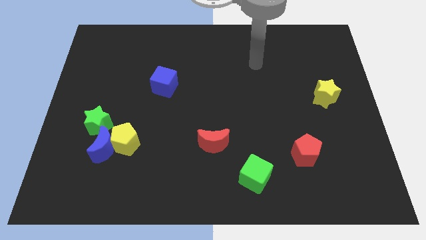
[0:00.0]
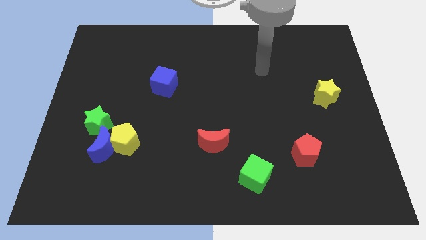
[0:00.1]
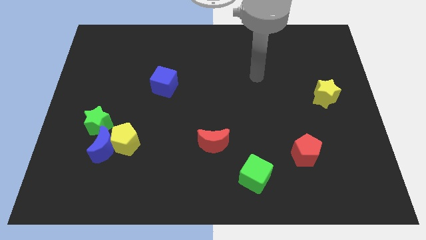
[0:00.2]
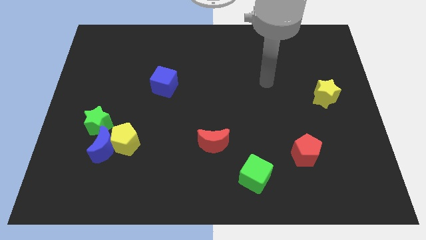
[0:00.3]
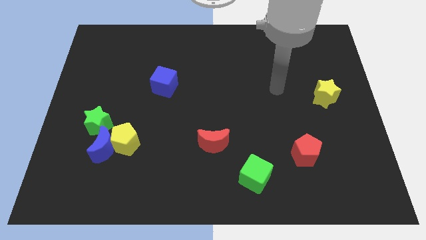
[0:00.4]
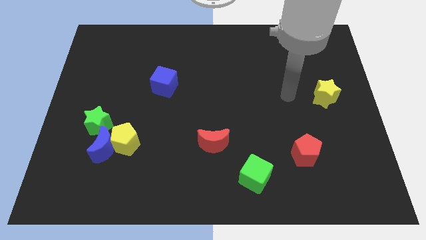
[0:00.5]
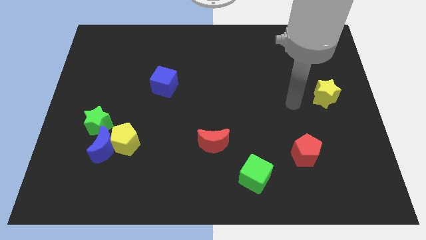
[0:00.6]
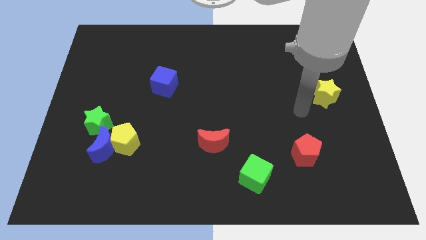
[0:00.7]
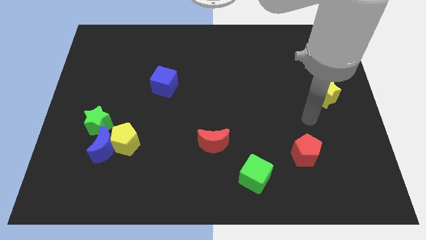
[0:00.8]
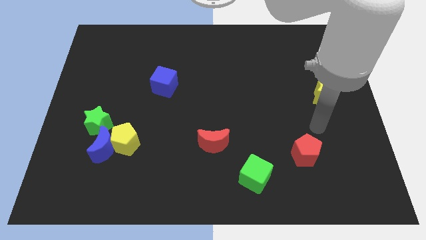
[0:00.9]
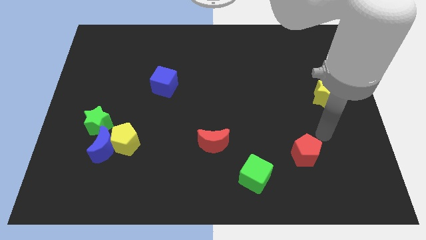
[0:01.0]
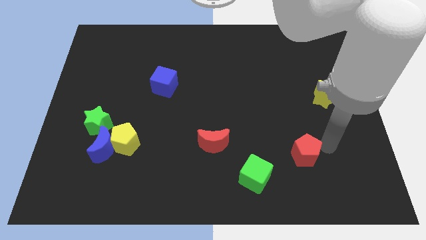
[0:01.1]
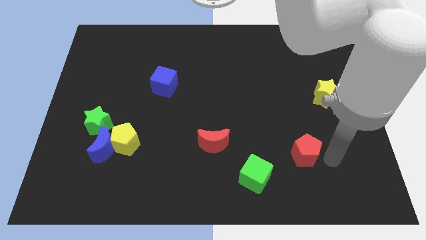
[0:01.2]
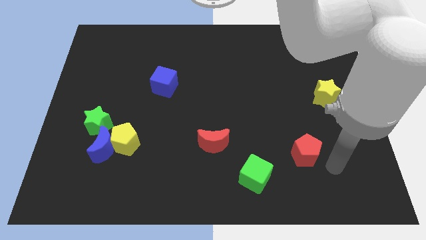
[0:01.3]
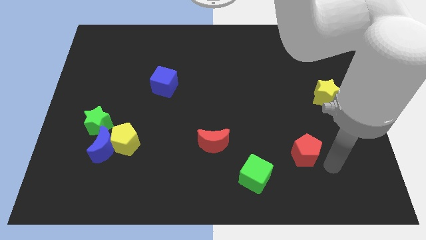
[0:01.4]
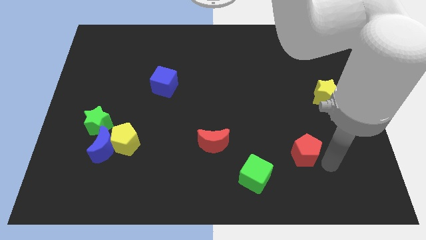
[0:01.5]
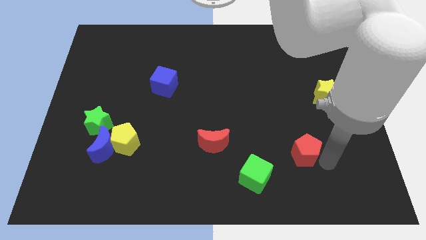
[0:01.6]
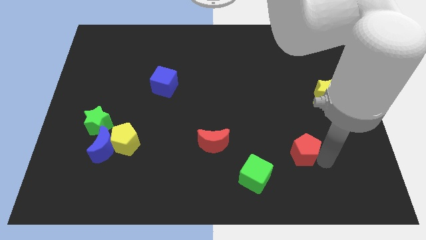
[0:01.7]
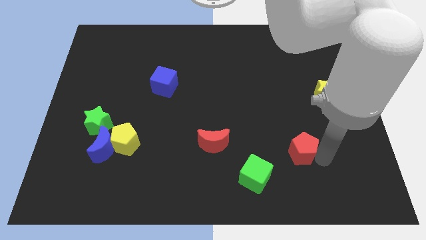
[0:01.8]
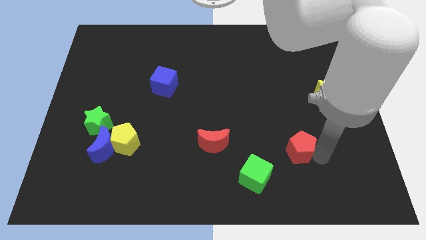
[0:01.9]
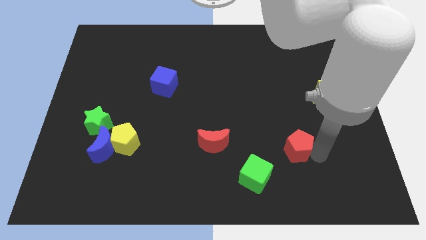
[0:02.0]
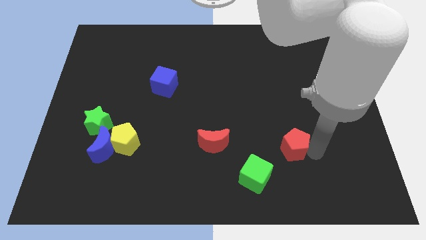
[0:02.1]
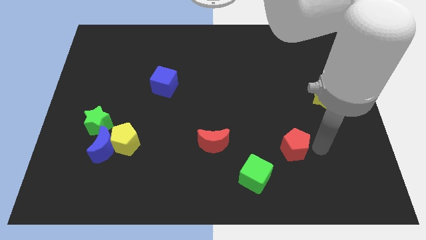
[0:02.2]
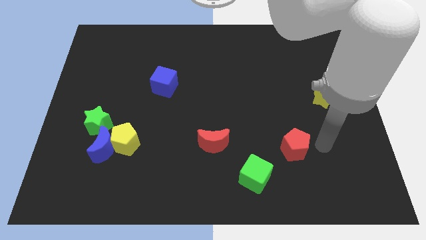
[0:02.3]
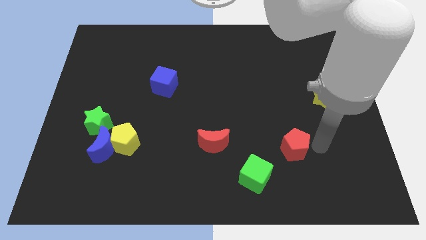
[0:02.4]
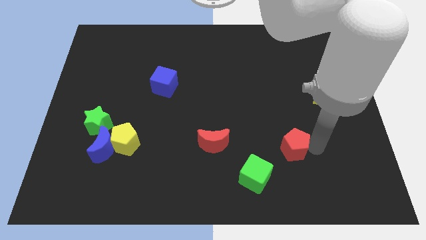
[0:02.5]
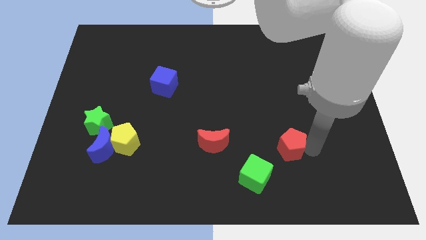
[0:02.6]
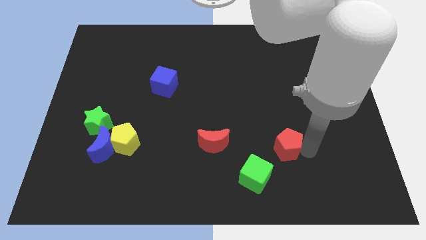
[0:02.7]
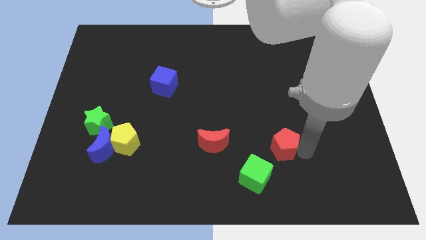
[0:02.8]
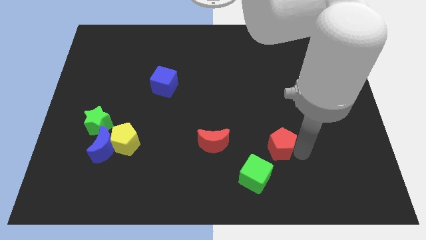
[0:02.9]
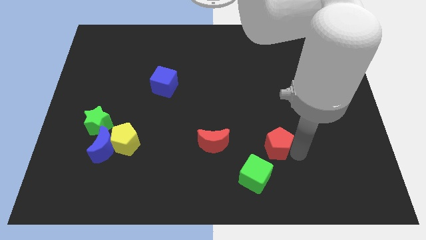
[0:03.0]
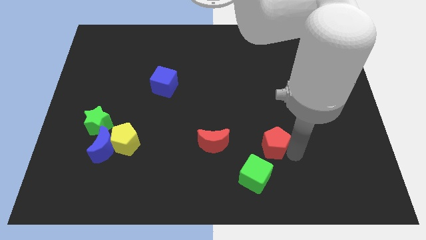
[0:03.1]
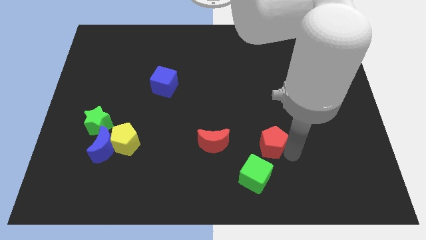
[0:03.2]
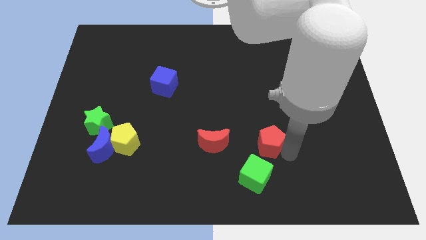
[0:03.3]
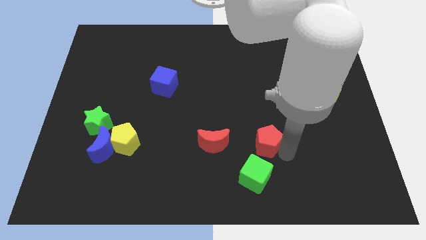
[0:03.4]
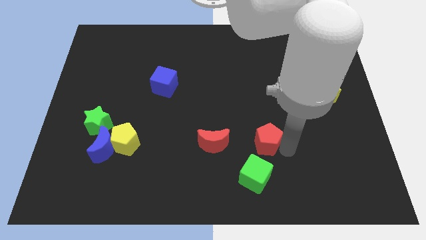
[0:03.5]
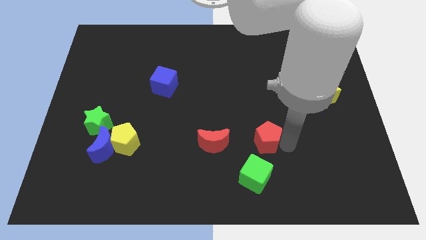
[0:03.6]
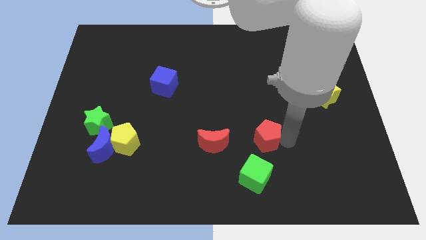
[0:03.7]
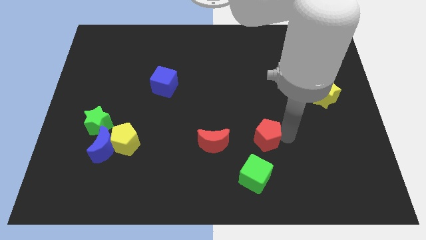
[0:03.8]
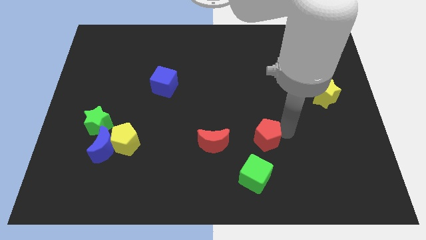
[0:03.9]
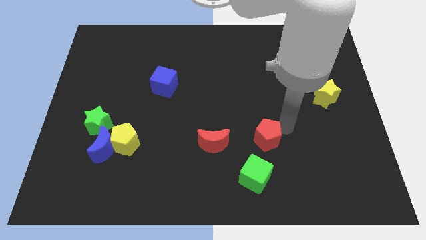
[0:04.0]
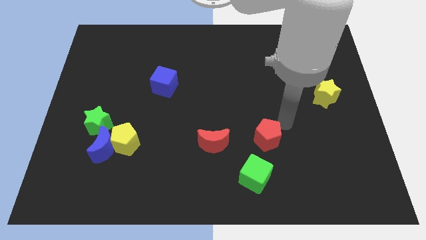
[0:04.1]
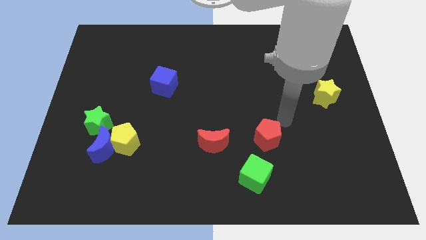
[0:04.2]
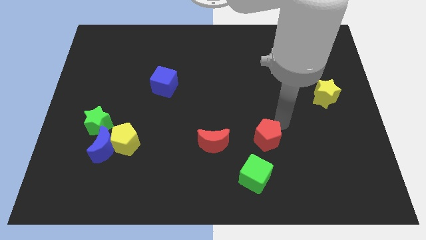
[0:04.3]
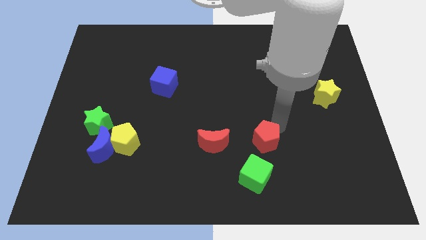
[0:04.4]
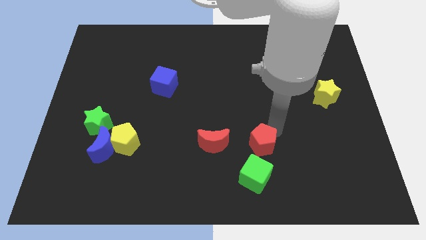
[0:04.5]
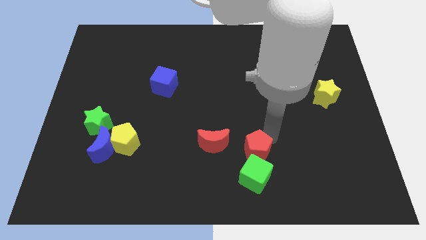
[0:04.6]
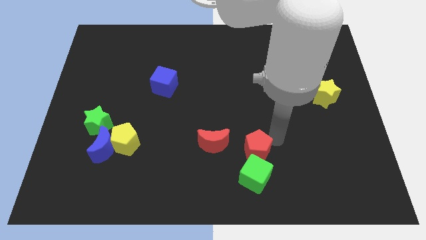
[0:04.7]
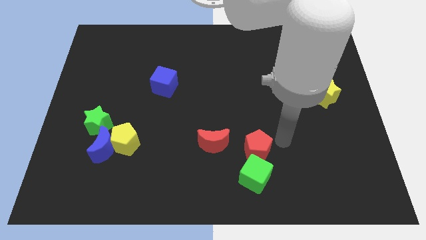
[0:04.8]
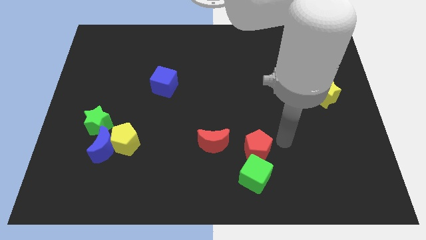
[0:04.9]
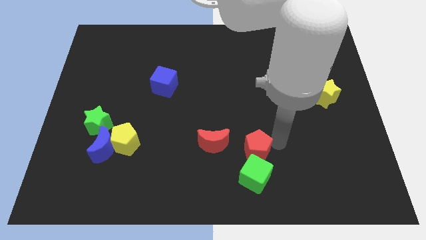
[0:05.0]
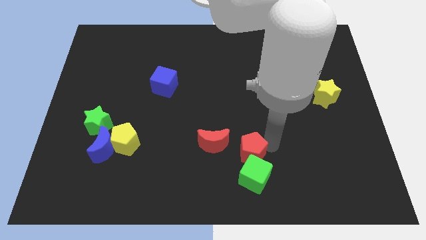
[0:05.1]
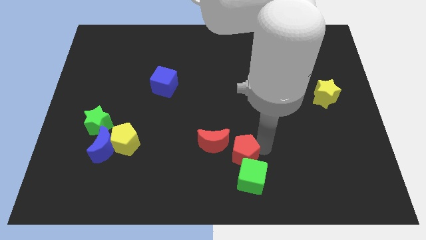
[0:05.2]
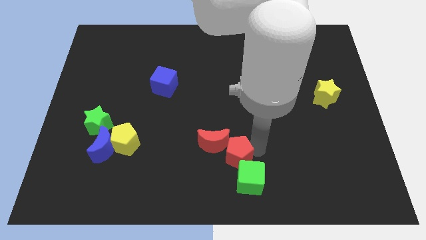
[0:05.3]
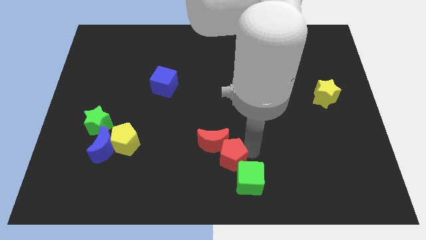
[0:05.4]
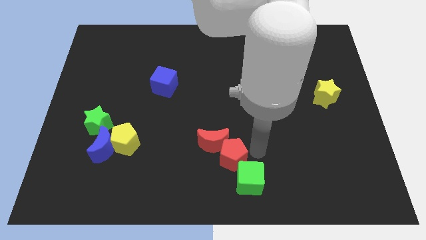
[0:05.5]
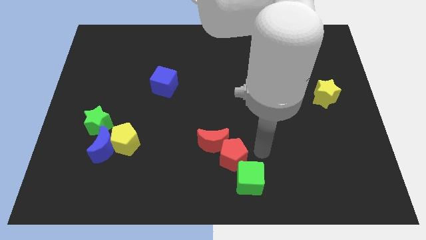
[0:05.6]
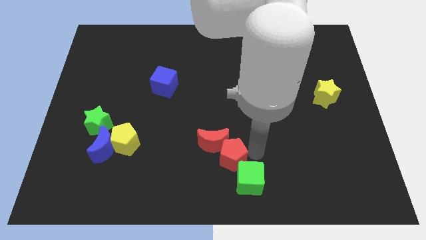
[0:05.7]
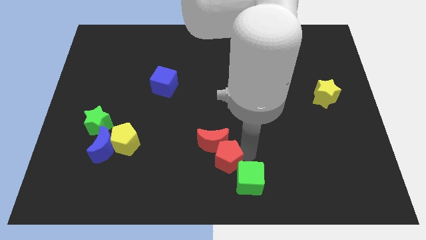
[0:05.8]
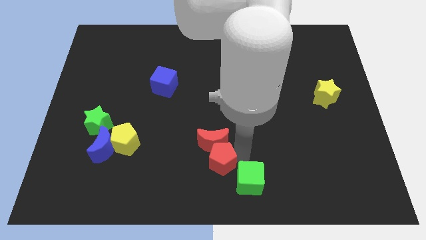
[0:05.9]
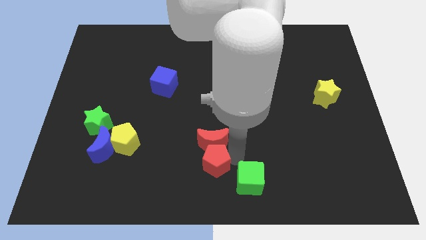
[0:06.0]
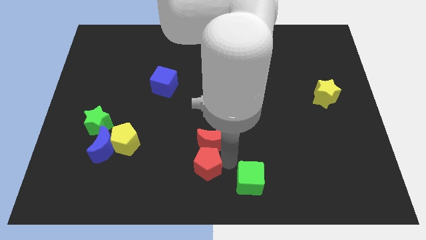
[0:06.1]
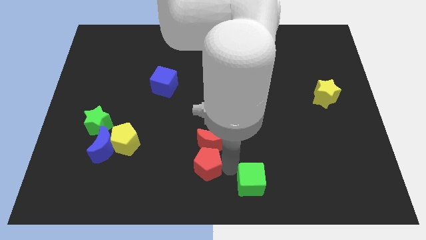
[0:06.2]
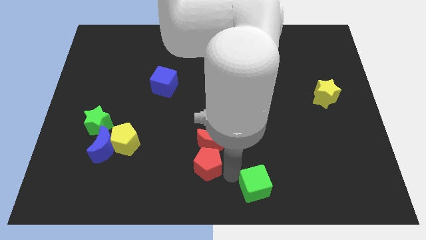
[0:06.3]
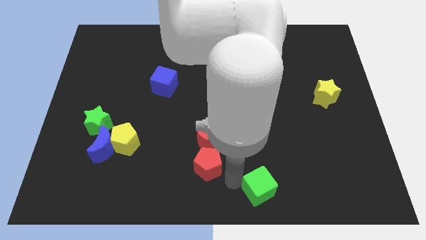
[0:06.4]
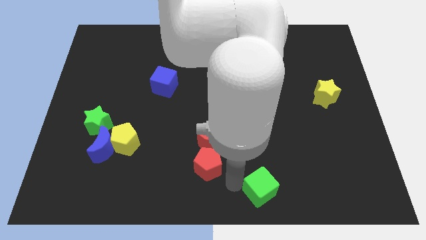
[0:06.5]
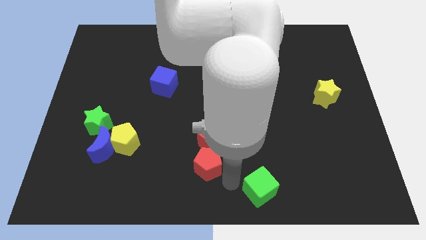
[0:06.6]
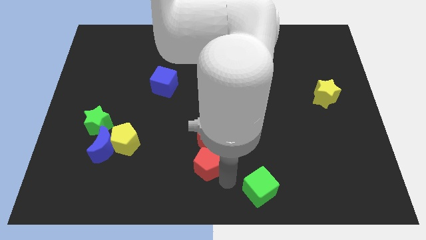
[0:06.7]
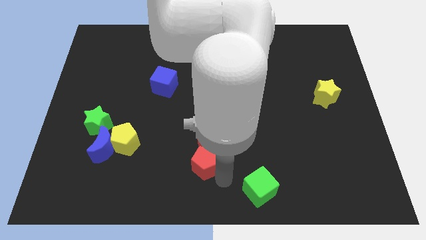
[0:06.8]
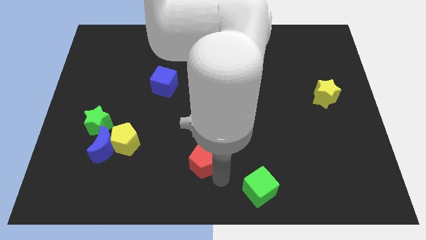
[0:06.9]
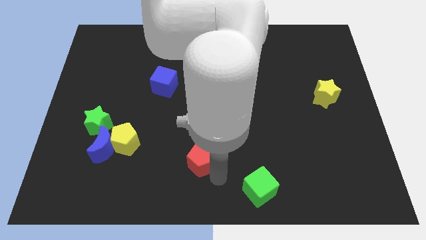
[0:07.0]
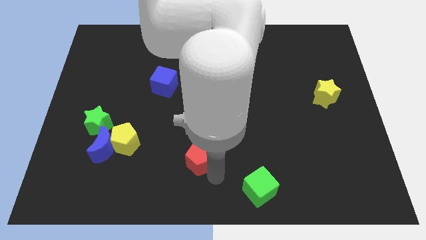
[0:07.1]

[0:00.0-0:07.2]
put the red pentagon to the left side of the red moon

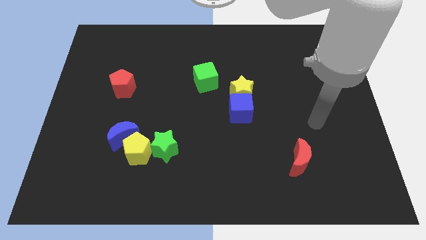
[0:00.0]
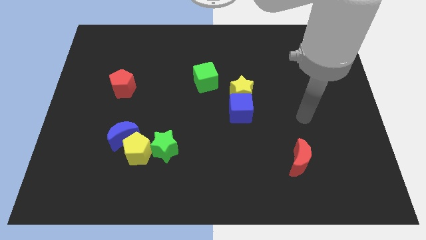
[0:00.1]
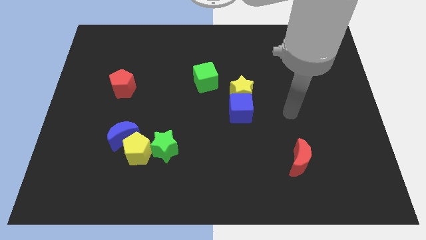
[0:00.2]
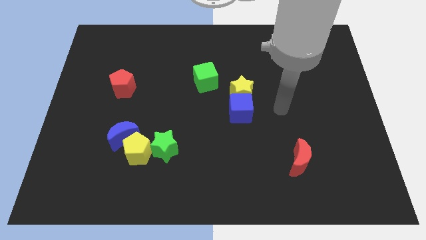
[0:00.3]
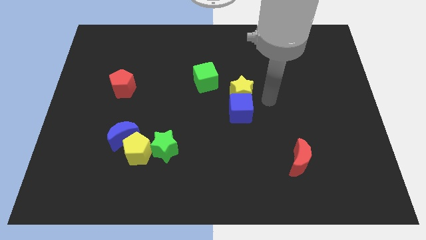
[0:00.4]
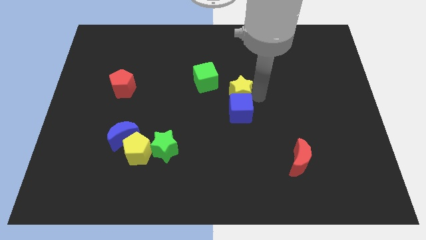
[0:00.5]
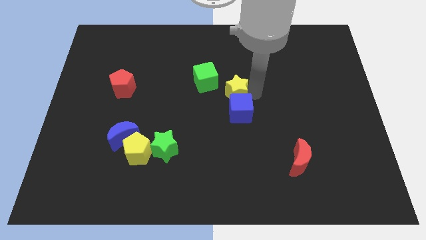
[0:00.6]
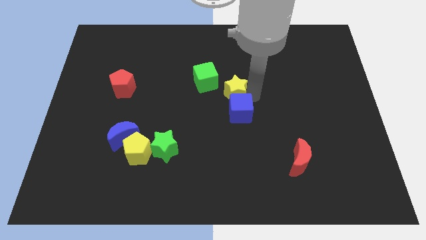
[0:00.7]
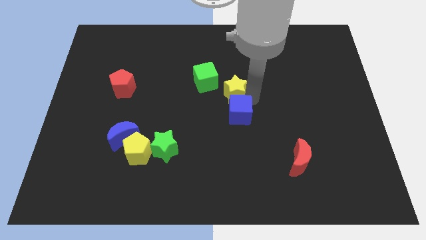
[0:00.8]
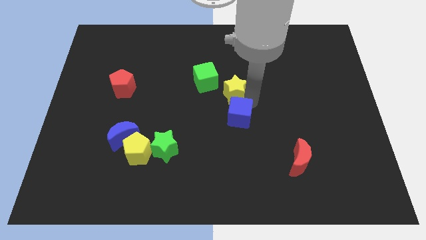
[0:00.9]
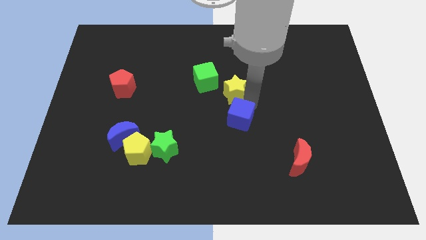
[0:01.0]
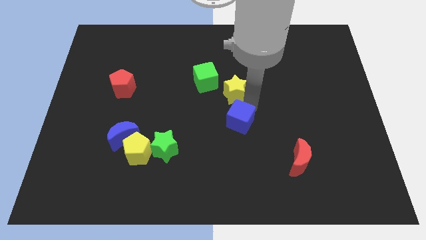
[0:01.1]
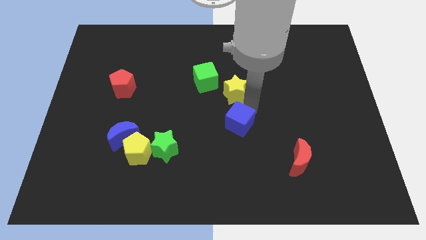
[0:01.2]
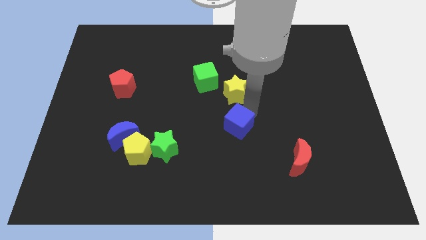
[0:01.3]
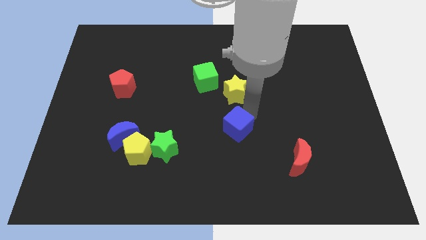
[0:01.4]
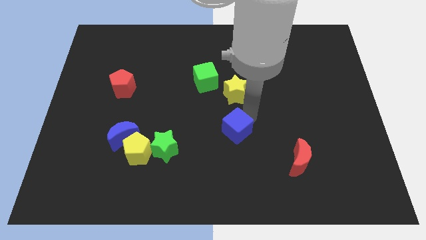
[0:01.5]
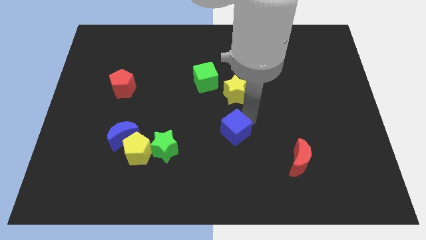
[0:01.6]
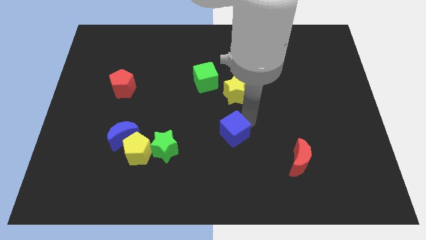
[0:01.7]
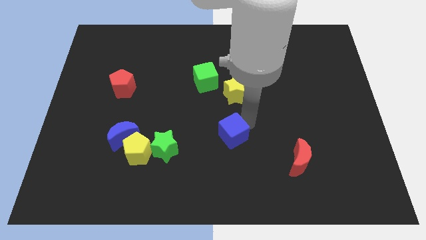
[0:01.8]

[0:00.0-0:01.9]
push the blue cube right of the green star
